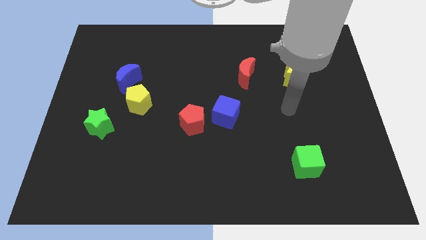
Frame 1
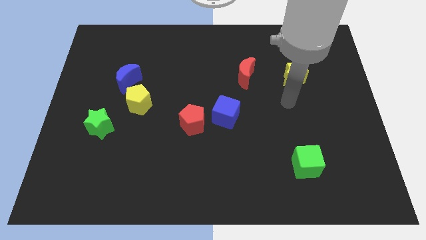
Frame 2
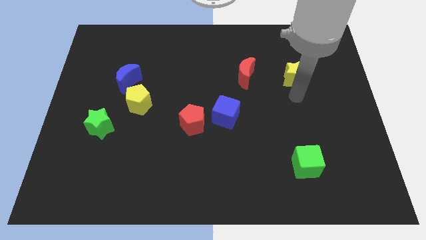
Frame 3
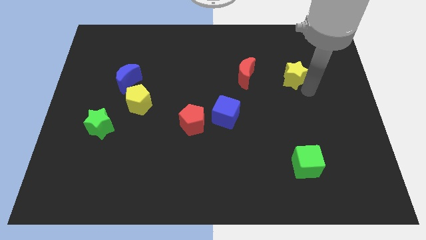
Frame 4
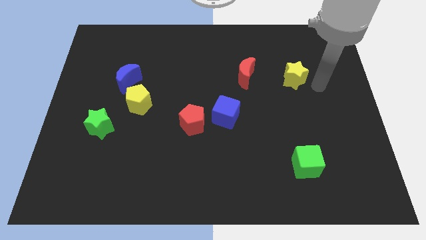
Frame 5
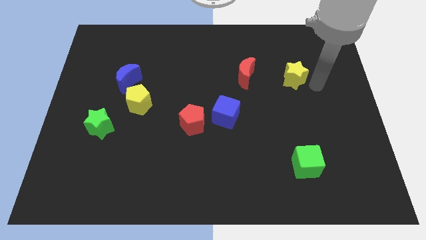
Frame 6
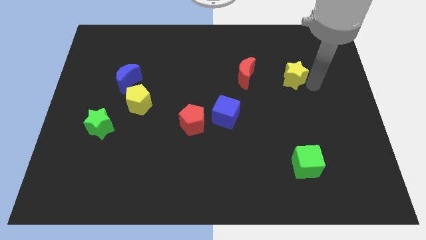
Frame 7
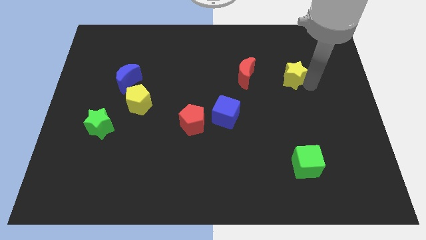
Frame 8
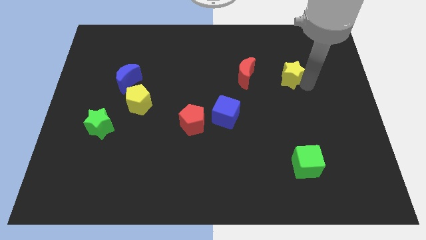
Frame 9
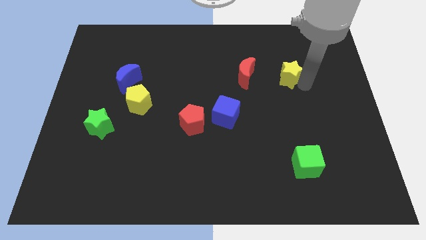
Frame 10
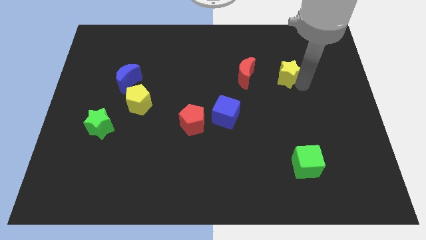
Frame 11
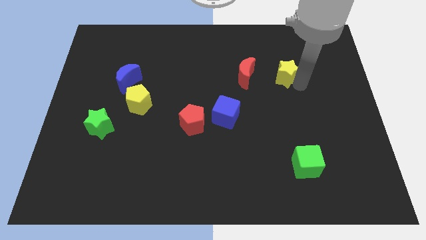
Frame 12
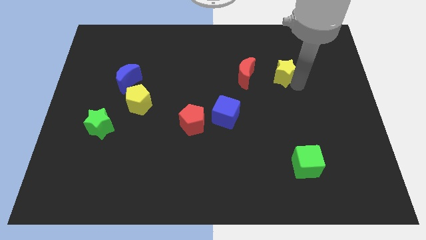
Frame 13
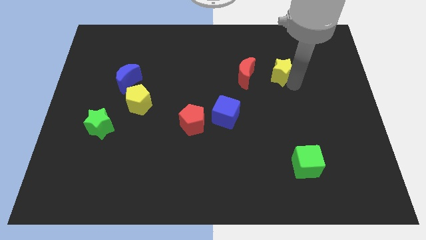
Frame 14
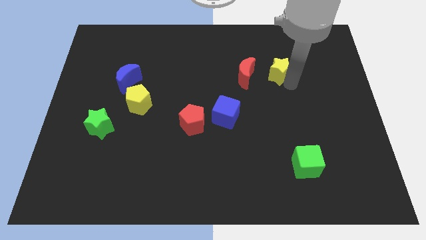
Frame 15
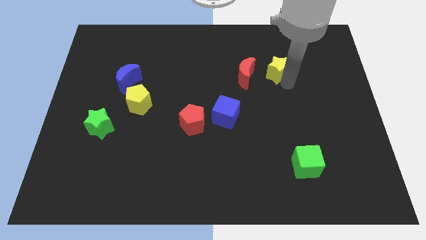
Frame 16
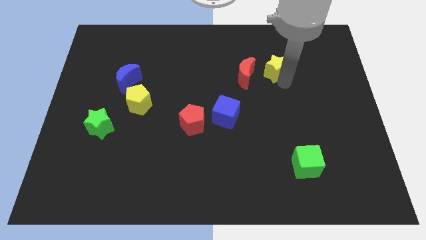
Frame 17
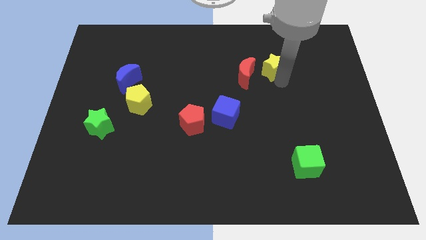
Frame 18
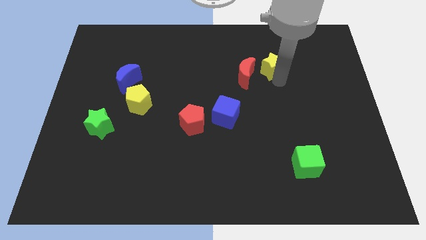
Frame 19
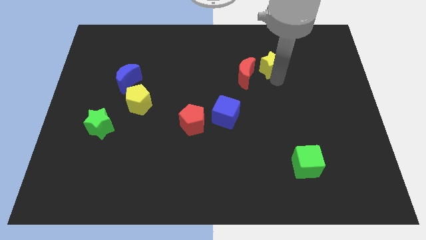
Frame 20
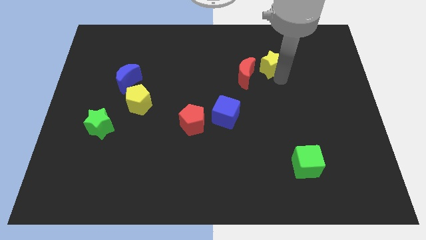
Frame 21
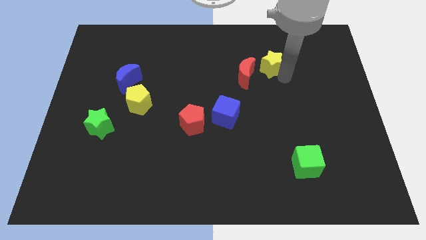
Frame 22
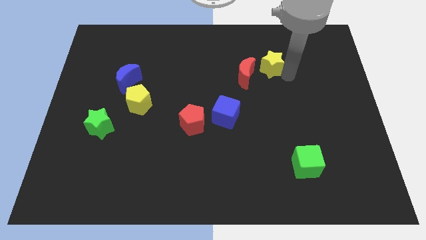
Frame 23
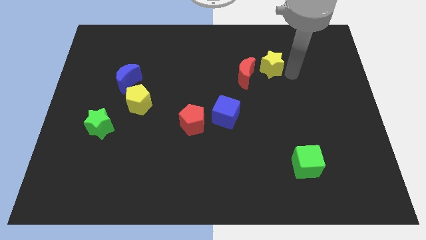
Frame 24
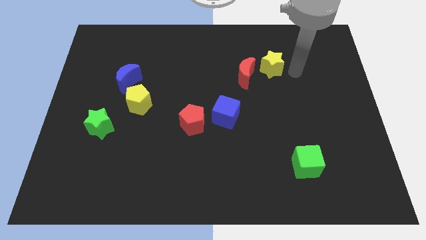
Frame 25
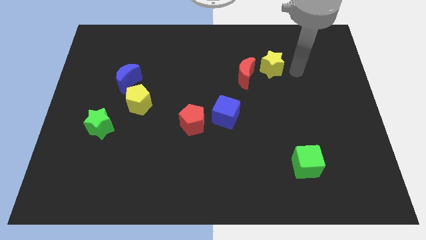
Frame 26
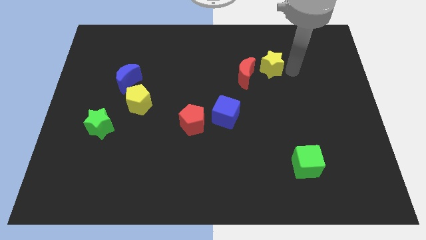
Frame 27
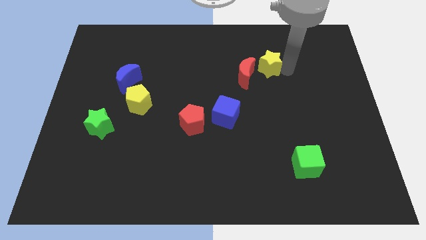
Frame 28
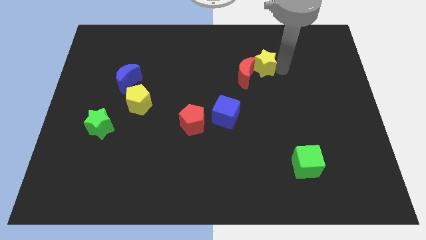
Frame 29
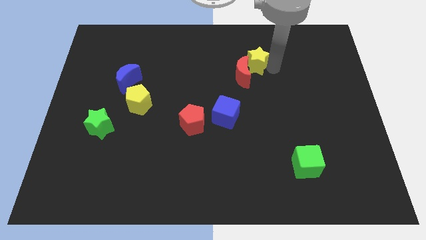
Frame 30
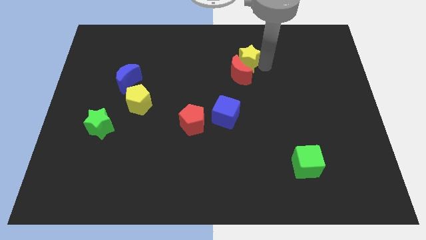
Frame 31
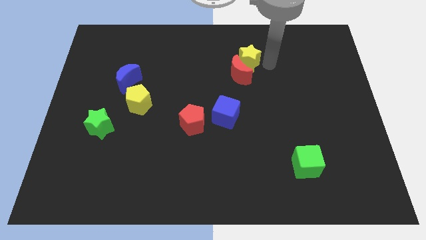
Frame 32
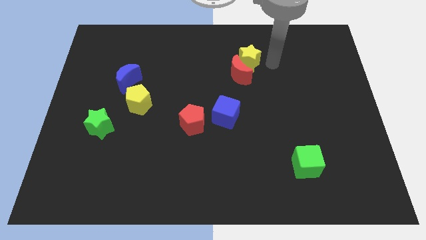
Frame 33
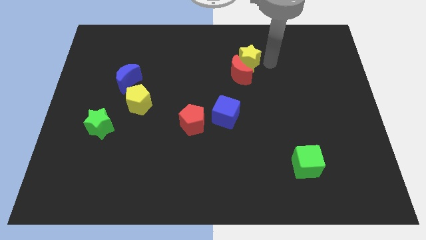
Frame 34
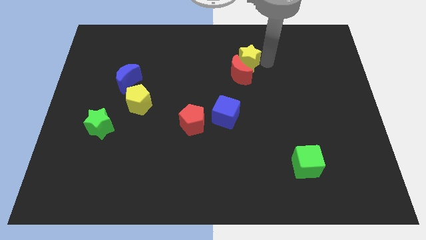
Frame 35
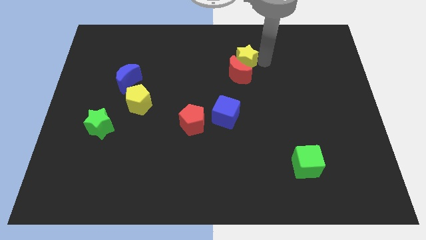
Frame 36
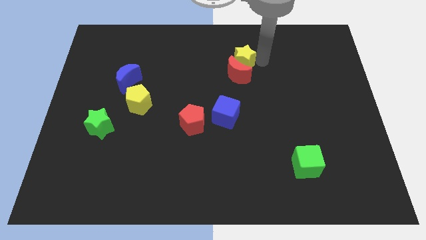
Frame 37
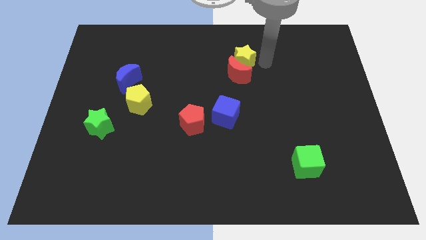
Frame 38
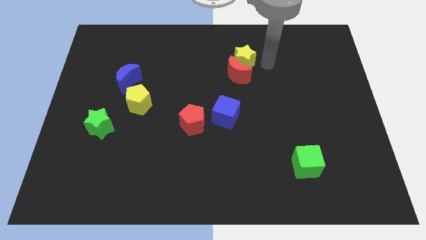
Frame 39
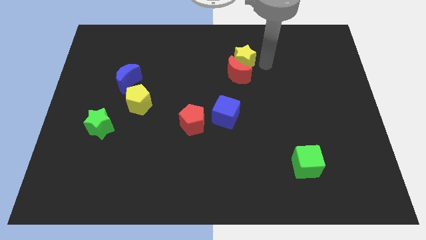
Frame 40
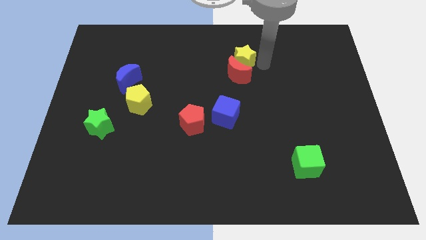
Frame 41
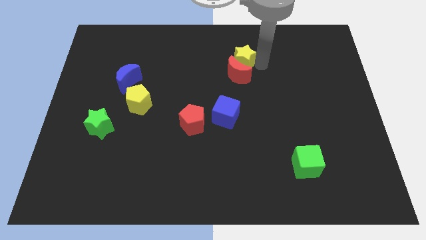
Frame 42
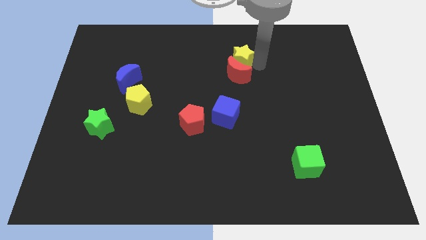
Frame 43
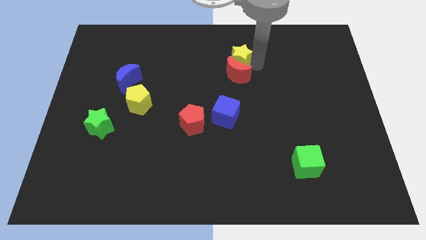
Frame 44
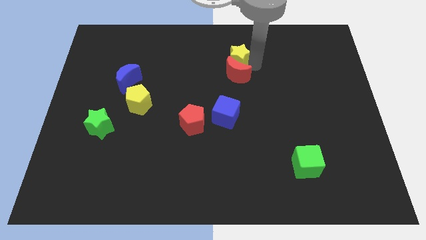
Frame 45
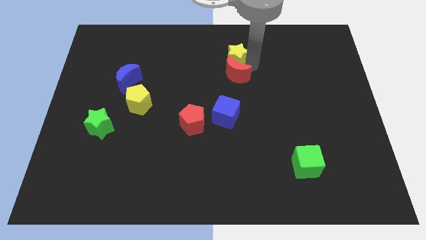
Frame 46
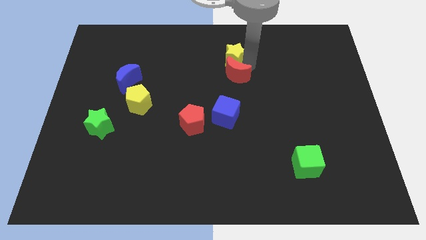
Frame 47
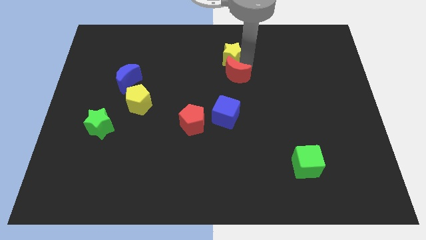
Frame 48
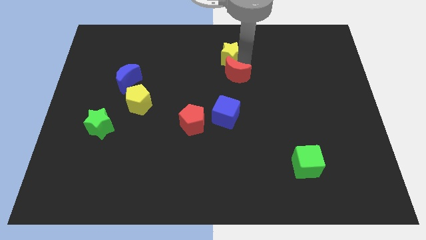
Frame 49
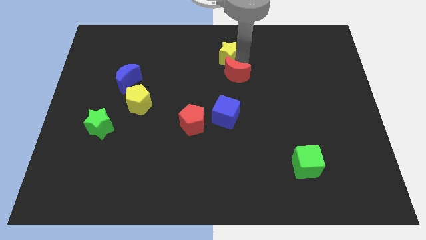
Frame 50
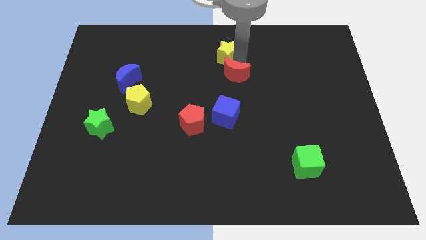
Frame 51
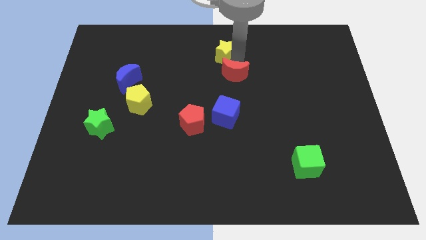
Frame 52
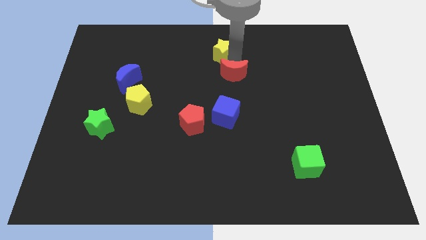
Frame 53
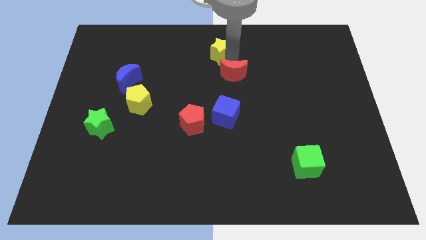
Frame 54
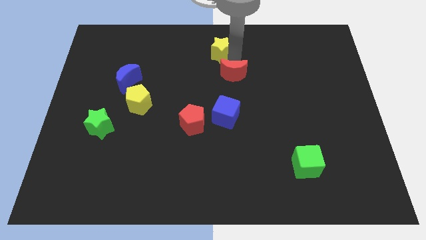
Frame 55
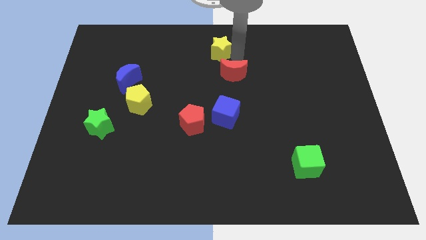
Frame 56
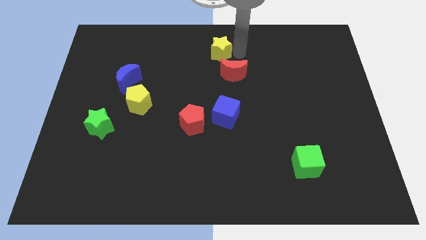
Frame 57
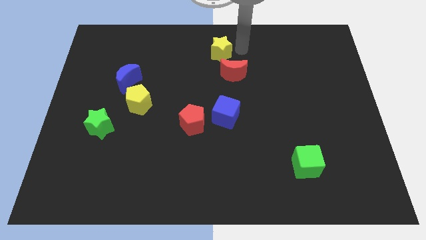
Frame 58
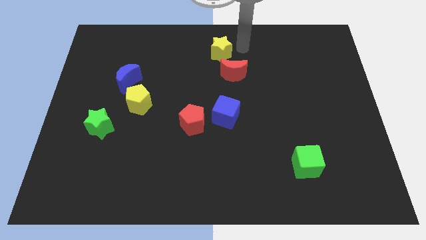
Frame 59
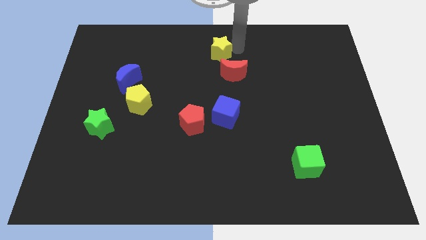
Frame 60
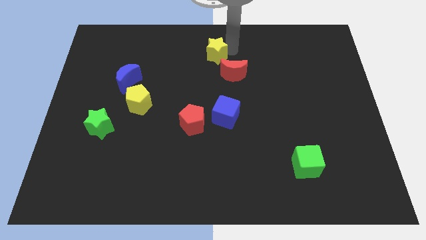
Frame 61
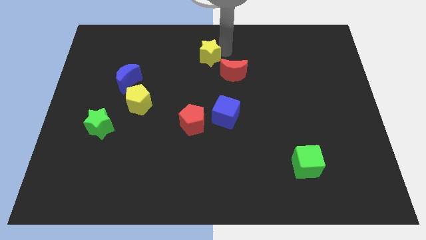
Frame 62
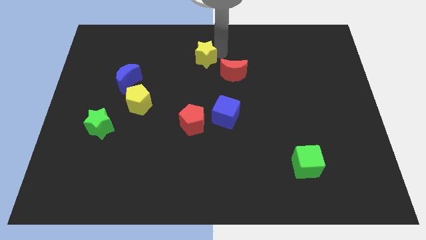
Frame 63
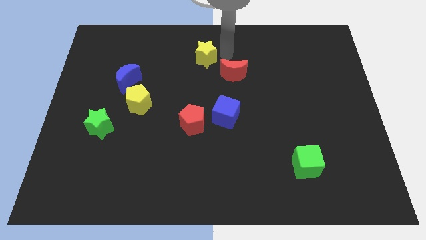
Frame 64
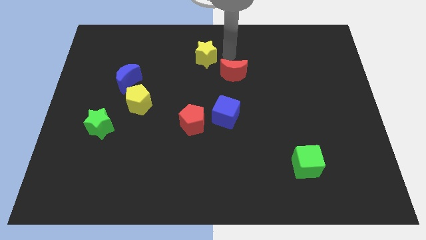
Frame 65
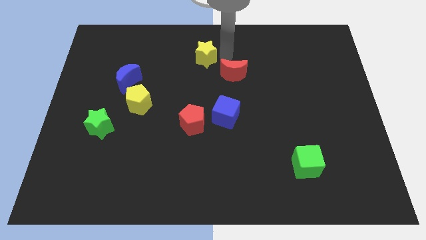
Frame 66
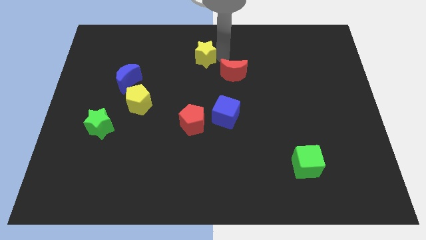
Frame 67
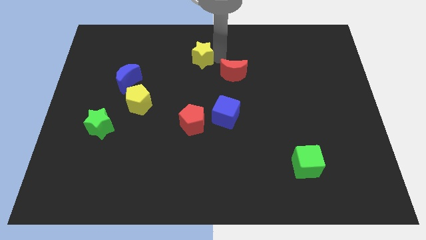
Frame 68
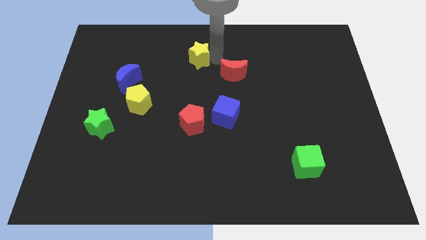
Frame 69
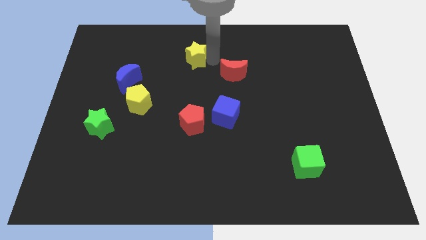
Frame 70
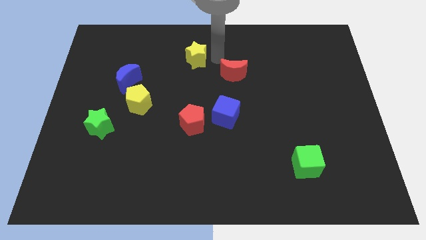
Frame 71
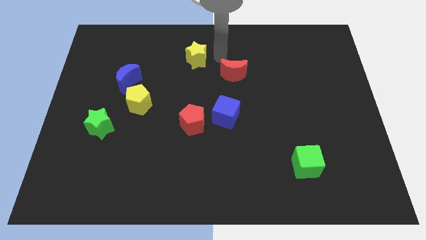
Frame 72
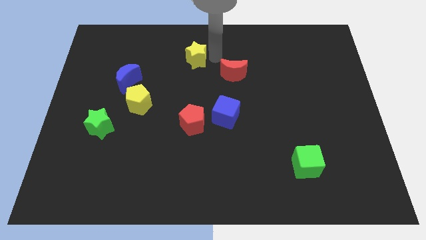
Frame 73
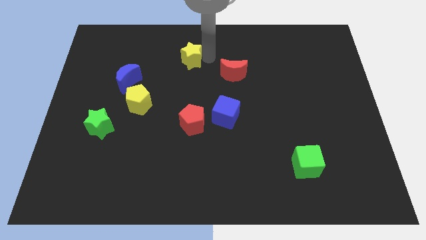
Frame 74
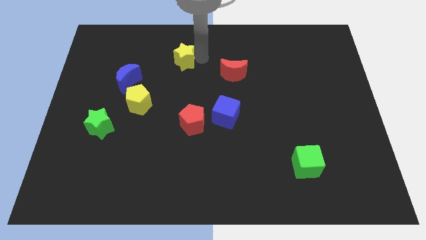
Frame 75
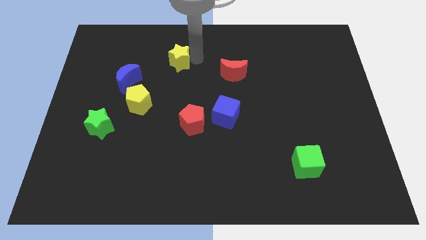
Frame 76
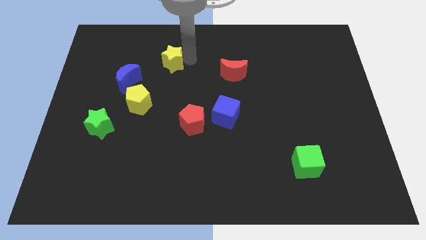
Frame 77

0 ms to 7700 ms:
push the yellow star to the top right of the blue moon
